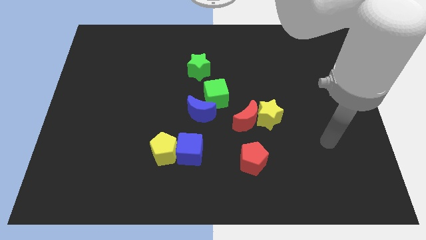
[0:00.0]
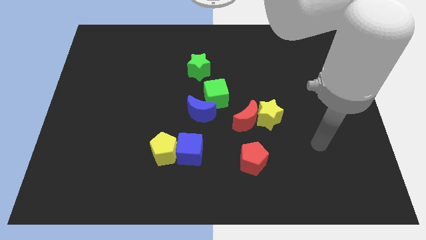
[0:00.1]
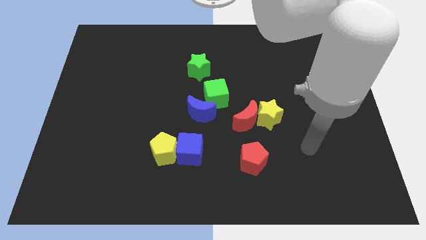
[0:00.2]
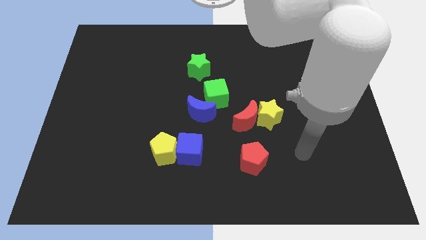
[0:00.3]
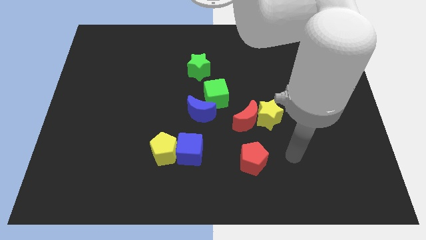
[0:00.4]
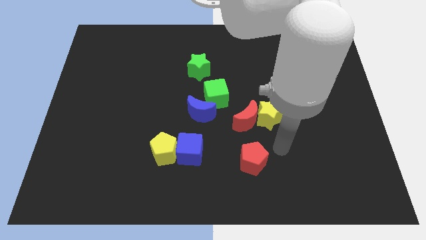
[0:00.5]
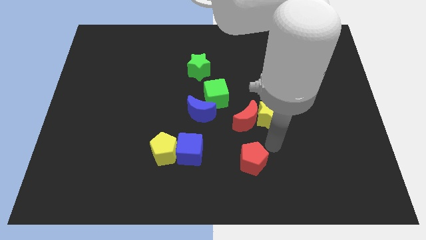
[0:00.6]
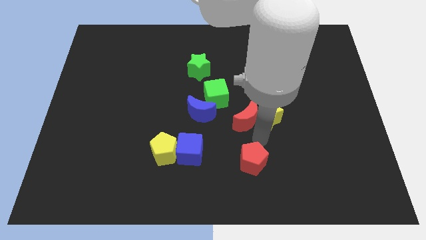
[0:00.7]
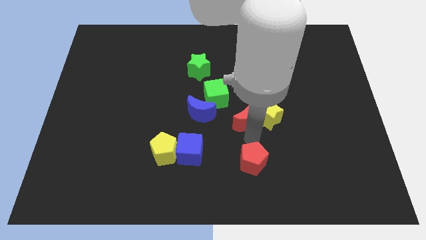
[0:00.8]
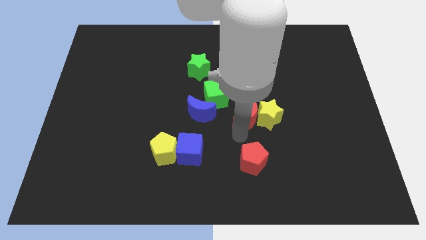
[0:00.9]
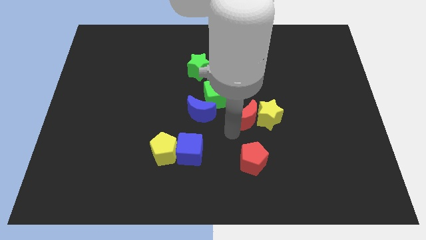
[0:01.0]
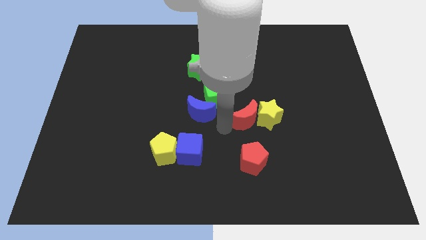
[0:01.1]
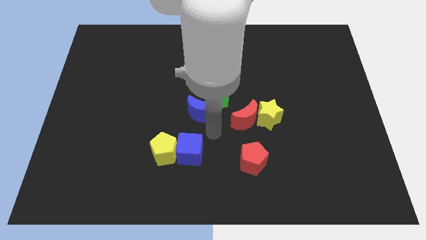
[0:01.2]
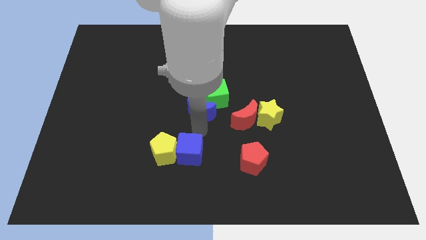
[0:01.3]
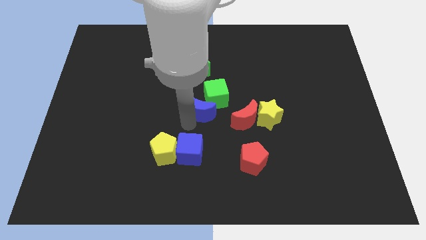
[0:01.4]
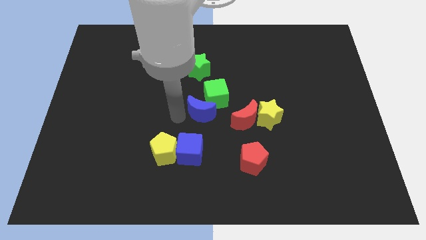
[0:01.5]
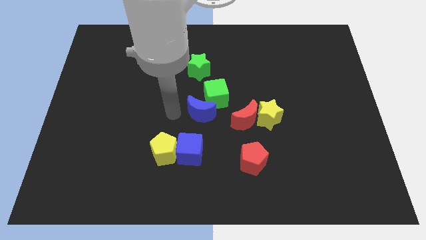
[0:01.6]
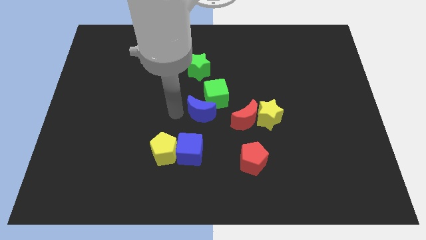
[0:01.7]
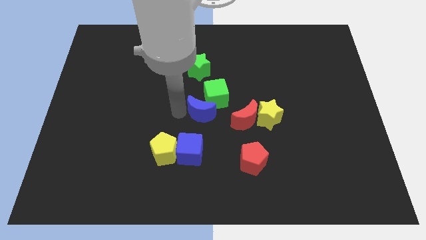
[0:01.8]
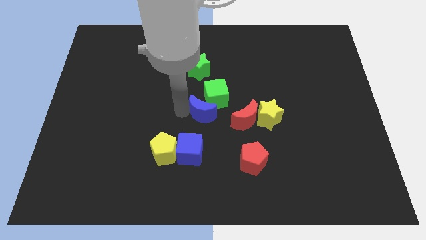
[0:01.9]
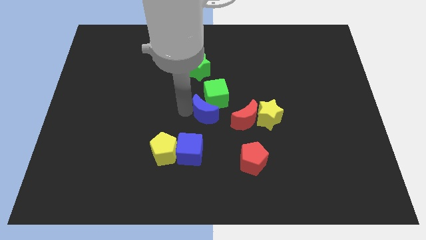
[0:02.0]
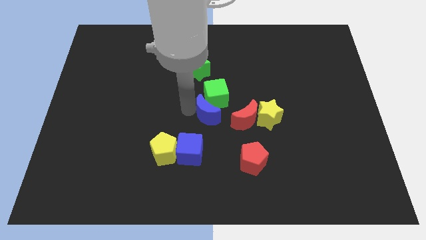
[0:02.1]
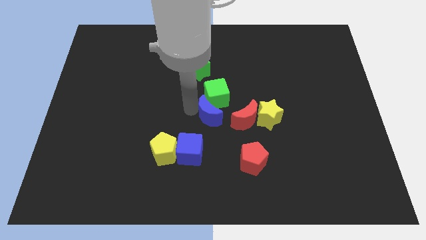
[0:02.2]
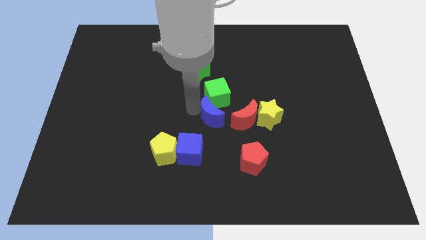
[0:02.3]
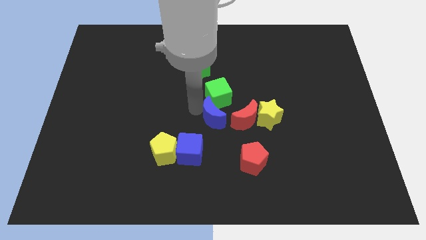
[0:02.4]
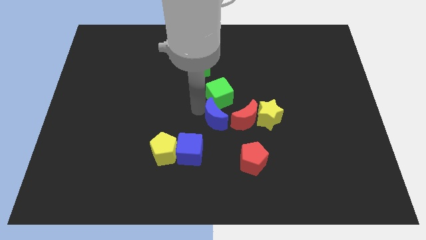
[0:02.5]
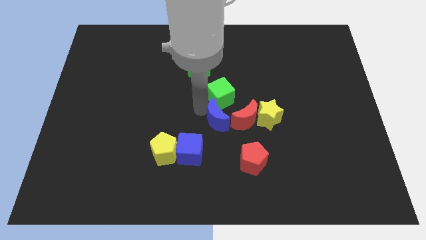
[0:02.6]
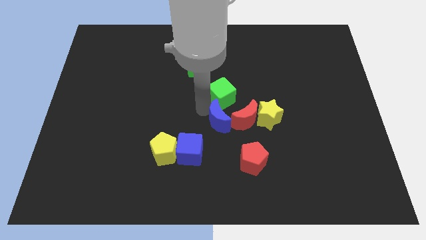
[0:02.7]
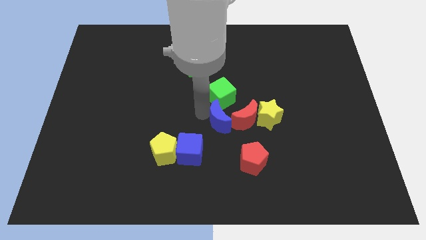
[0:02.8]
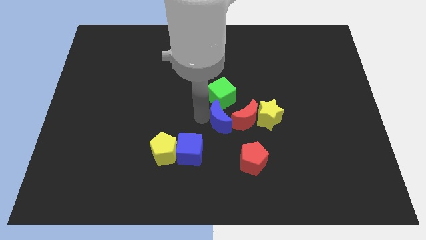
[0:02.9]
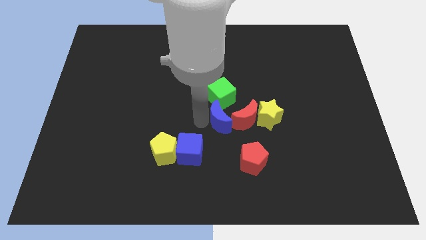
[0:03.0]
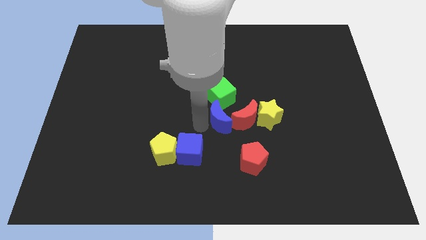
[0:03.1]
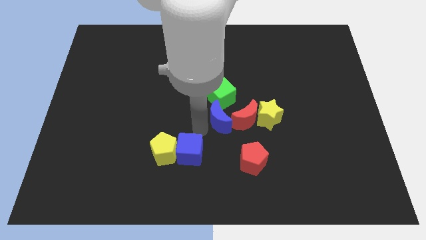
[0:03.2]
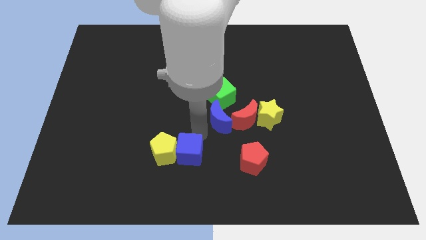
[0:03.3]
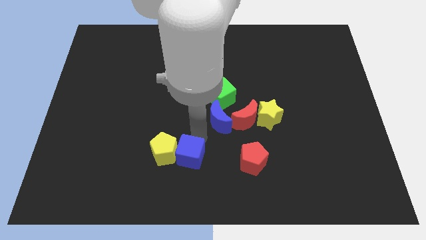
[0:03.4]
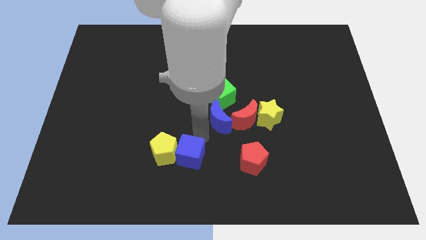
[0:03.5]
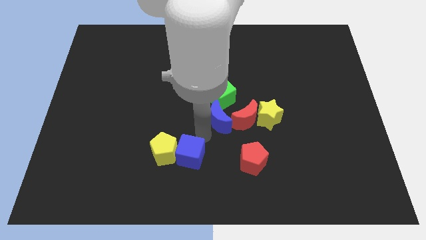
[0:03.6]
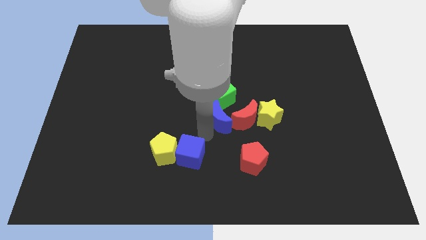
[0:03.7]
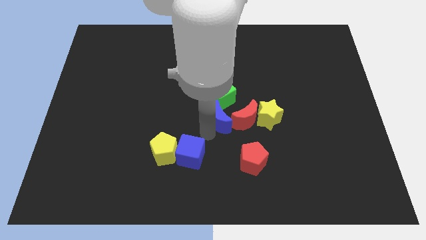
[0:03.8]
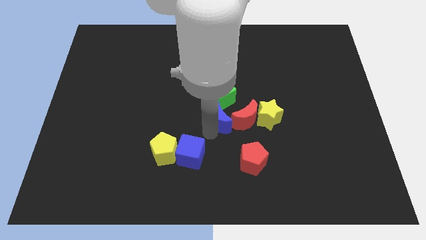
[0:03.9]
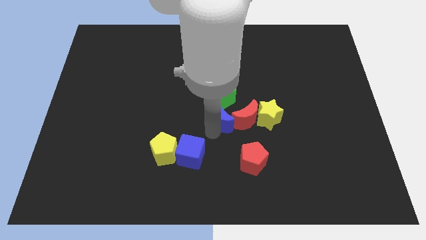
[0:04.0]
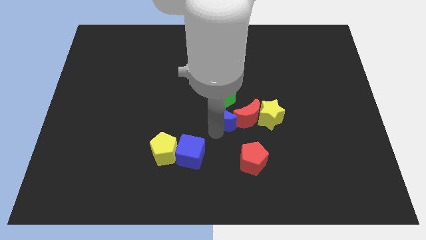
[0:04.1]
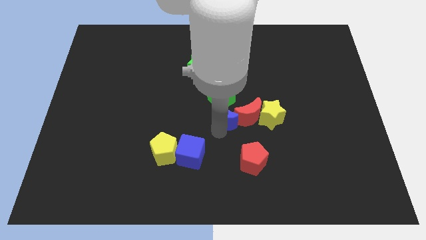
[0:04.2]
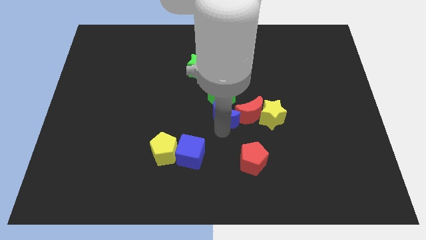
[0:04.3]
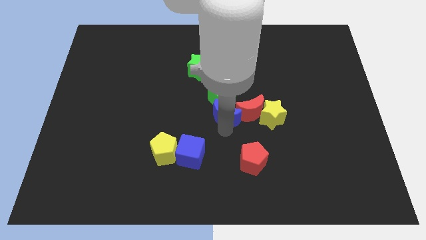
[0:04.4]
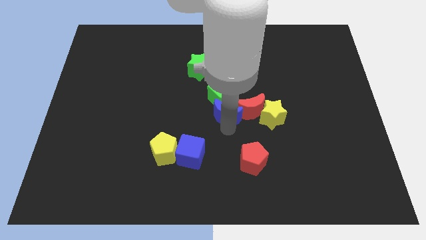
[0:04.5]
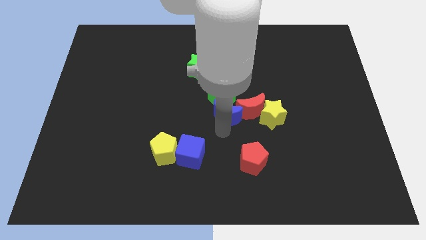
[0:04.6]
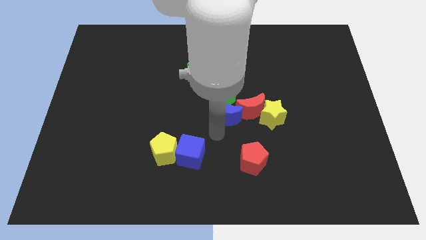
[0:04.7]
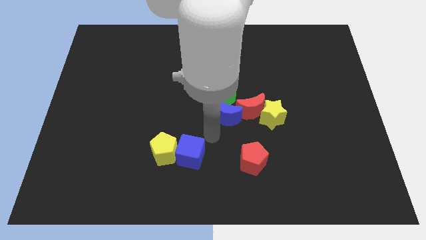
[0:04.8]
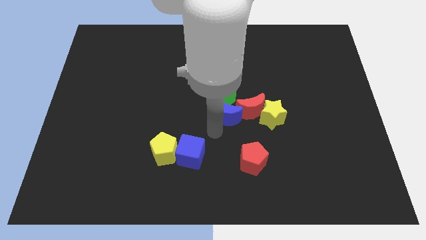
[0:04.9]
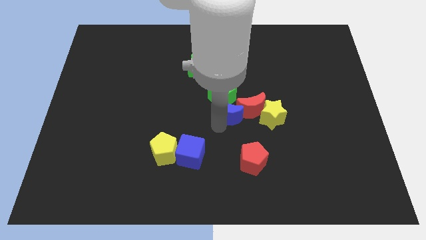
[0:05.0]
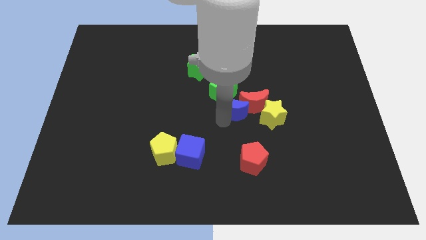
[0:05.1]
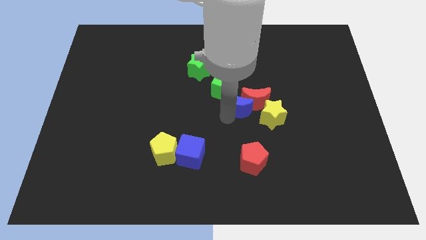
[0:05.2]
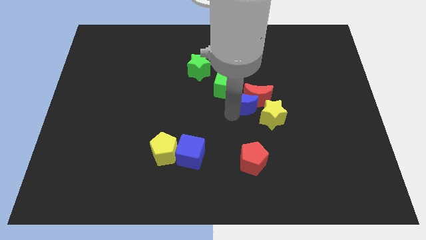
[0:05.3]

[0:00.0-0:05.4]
slightly slide the blue moon diagonally upwards and right

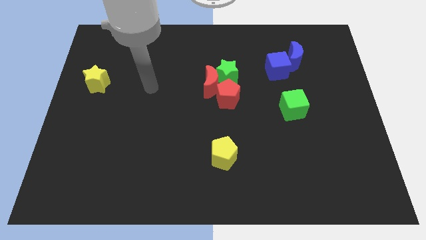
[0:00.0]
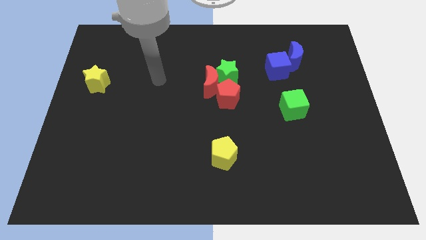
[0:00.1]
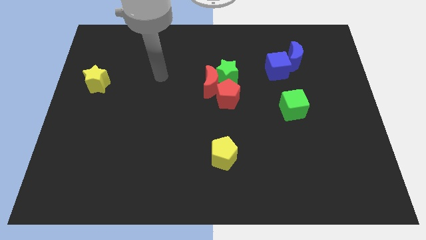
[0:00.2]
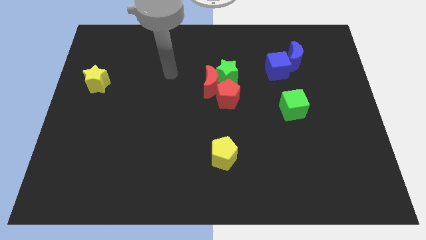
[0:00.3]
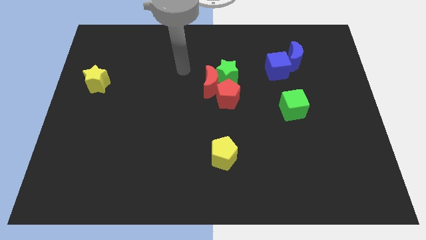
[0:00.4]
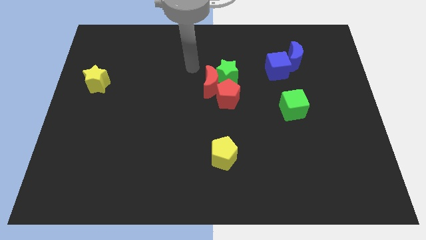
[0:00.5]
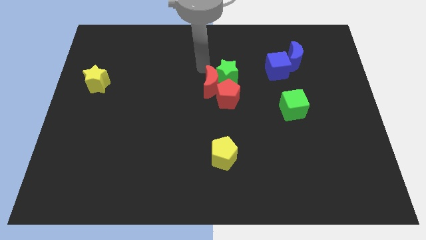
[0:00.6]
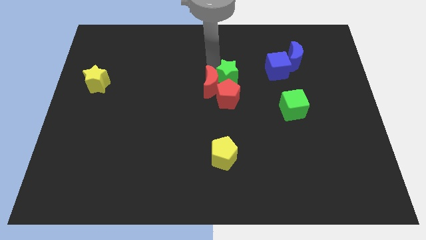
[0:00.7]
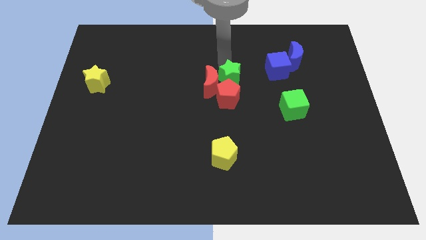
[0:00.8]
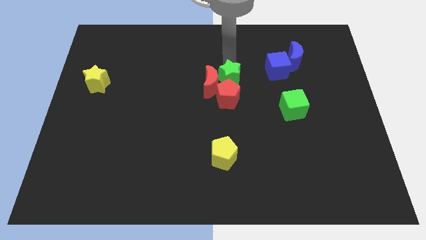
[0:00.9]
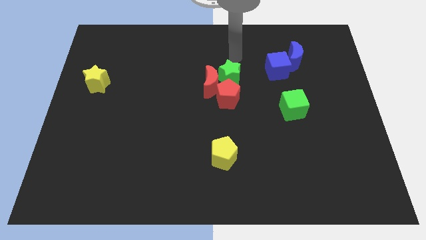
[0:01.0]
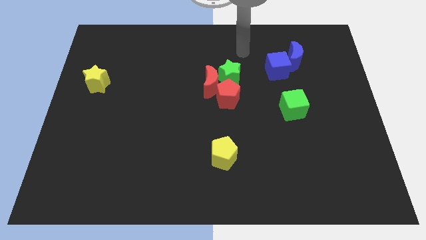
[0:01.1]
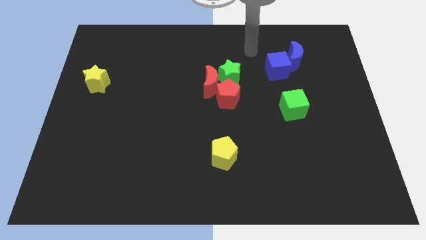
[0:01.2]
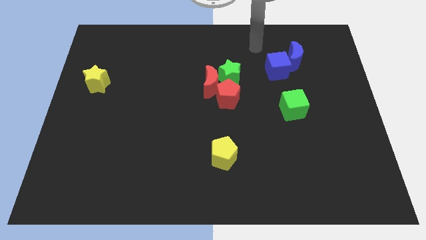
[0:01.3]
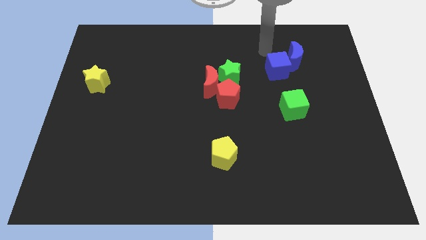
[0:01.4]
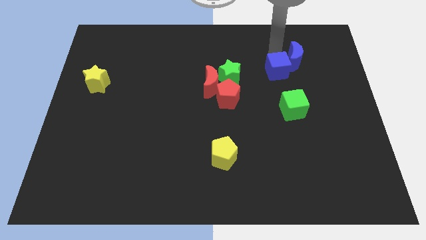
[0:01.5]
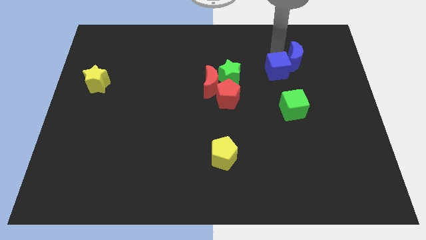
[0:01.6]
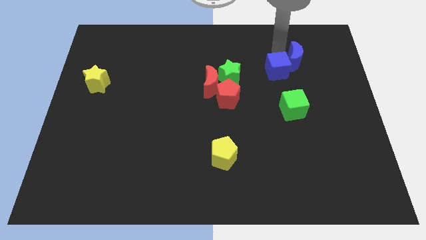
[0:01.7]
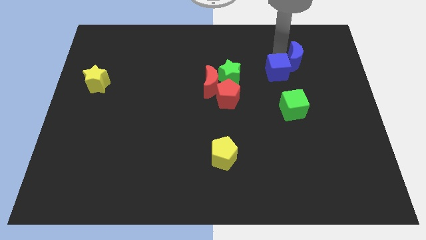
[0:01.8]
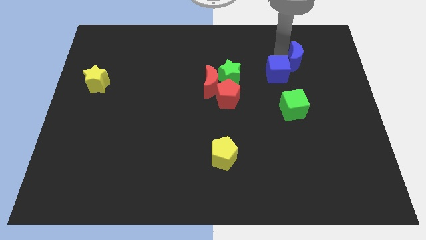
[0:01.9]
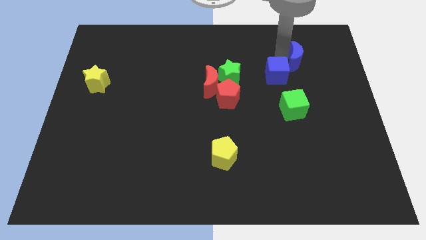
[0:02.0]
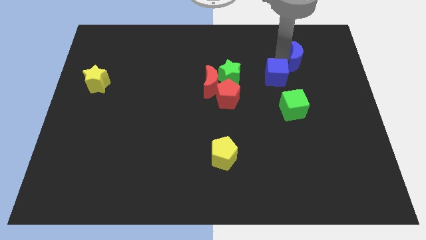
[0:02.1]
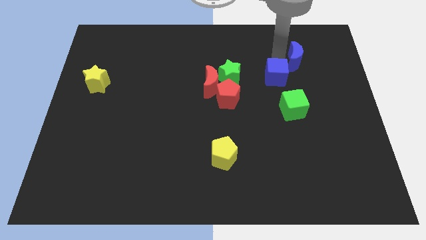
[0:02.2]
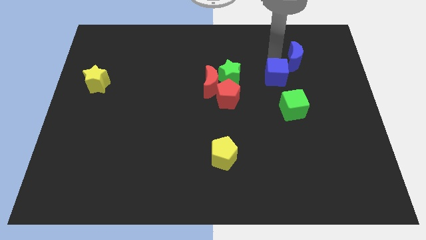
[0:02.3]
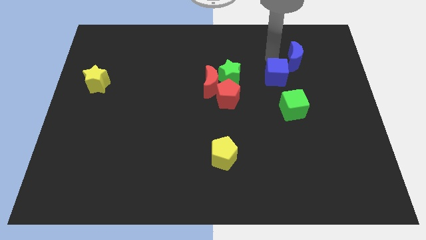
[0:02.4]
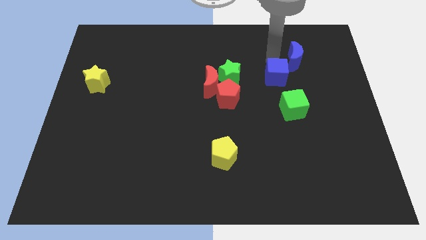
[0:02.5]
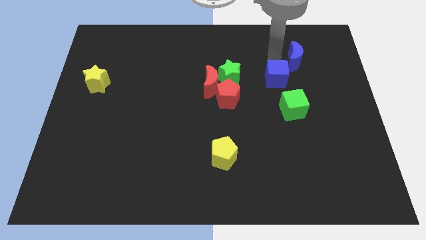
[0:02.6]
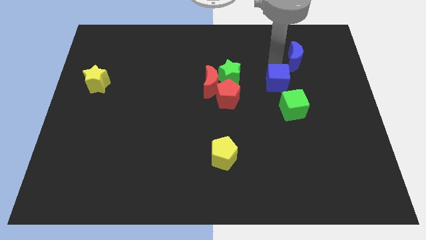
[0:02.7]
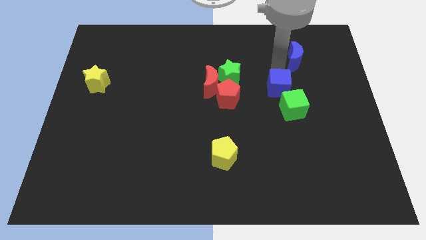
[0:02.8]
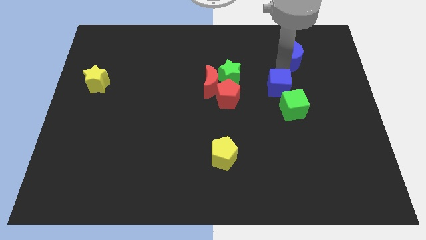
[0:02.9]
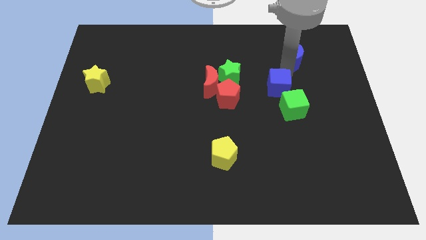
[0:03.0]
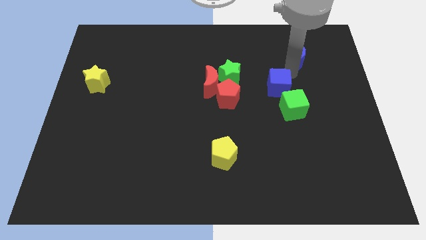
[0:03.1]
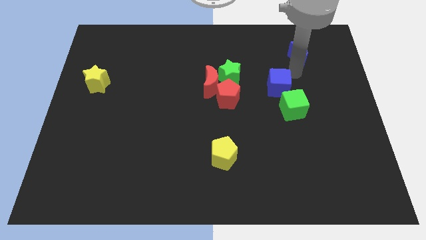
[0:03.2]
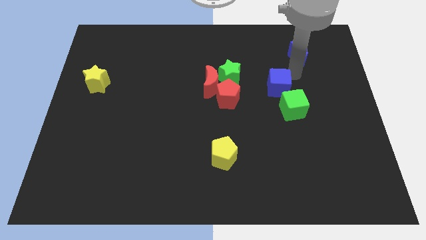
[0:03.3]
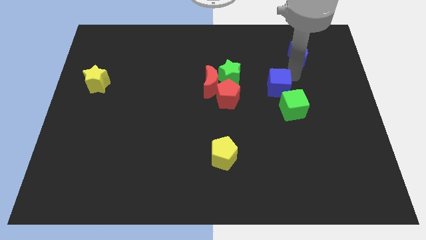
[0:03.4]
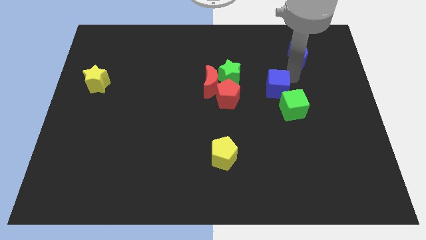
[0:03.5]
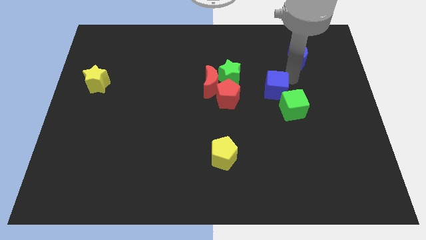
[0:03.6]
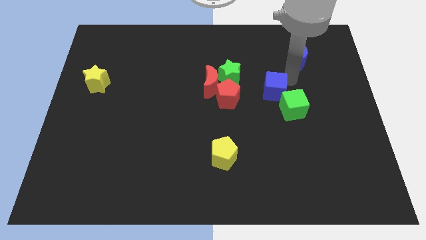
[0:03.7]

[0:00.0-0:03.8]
slightly slide the blue cube downwards
